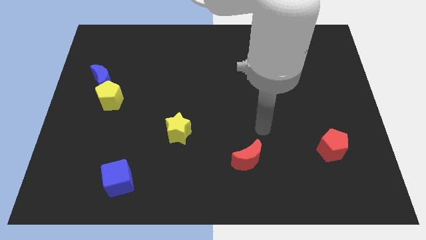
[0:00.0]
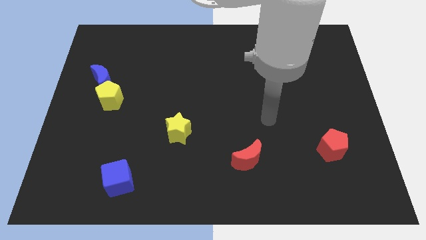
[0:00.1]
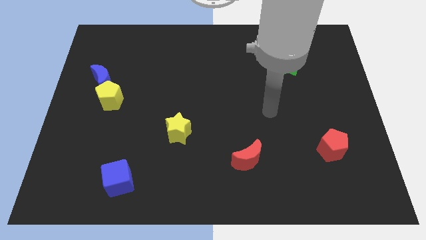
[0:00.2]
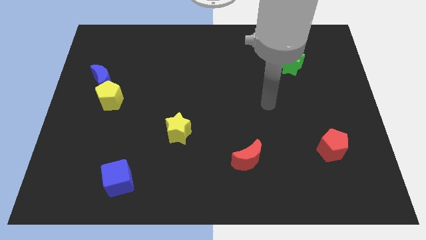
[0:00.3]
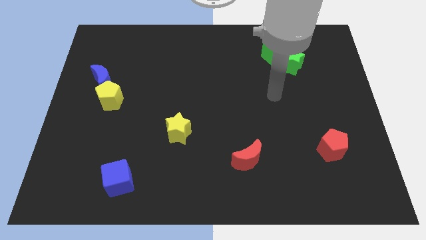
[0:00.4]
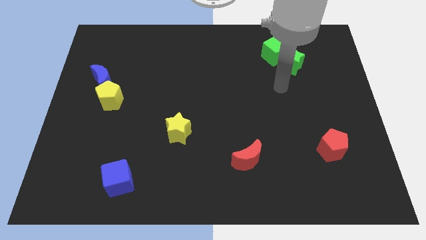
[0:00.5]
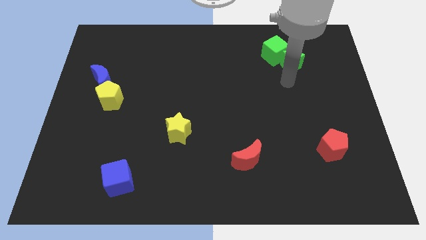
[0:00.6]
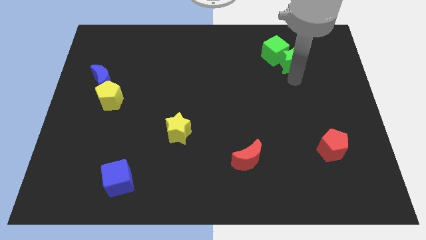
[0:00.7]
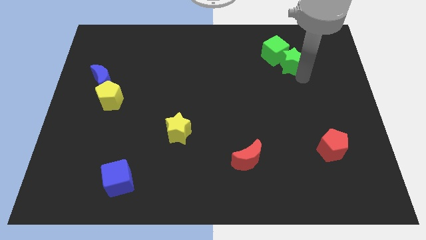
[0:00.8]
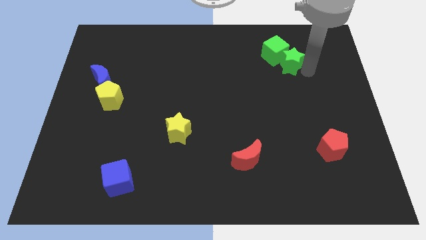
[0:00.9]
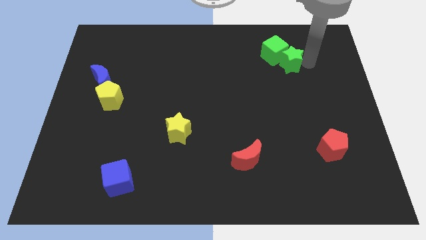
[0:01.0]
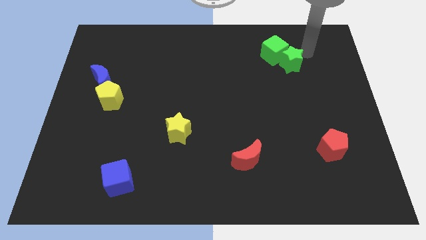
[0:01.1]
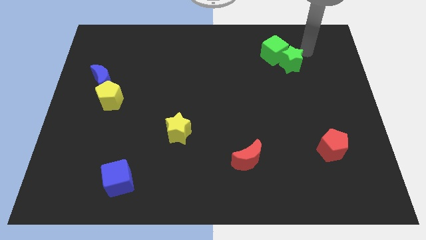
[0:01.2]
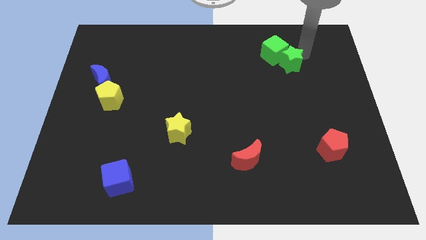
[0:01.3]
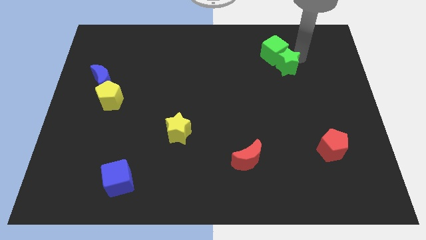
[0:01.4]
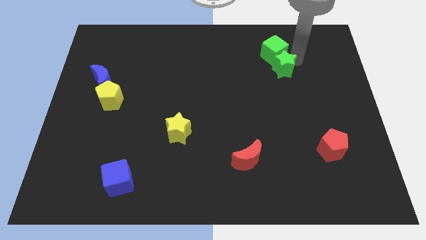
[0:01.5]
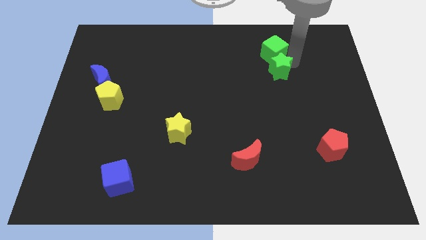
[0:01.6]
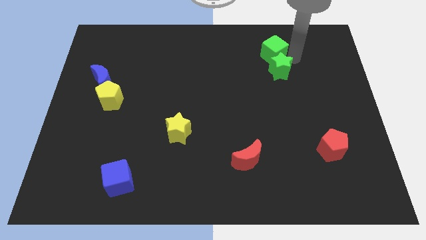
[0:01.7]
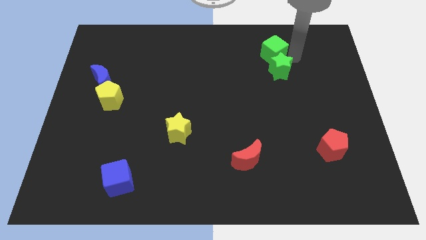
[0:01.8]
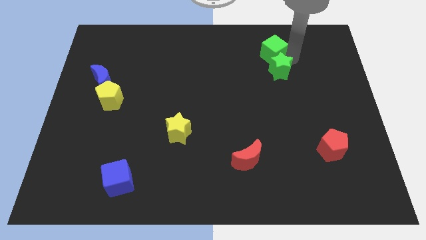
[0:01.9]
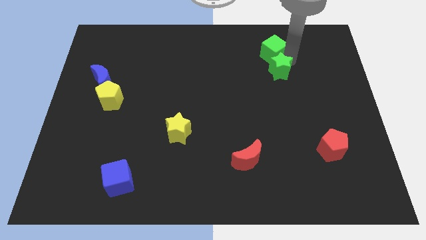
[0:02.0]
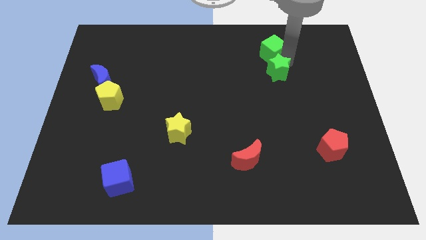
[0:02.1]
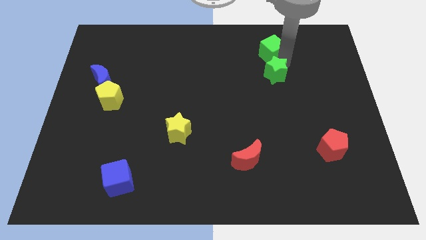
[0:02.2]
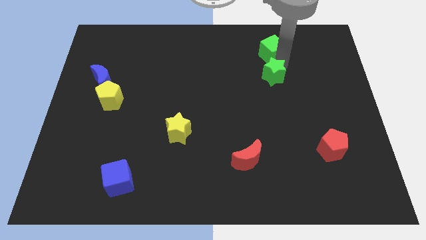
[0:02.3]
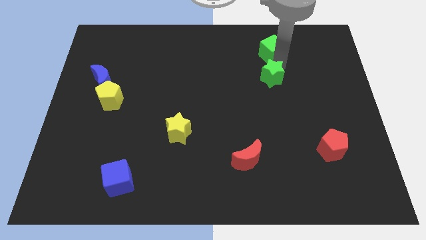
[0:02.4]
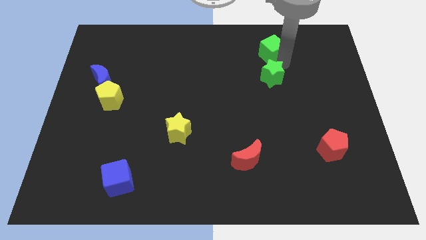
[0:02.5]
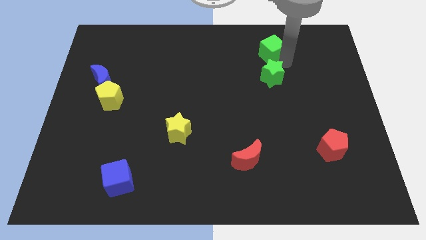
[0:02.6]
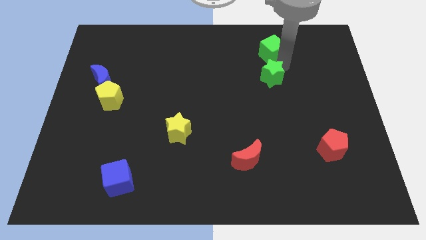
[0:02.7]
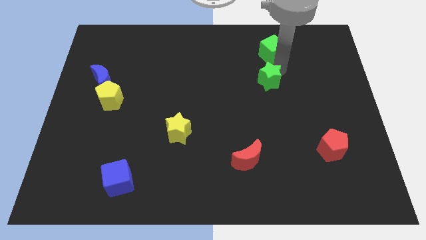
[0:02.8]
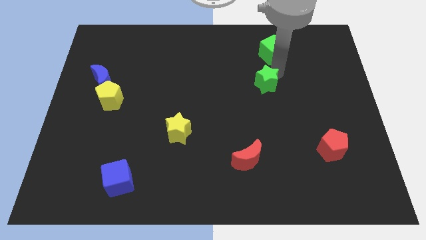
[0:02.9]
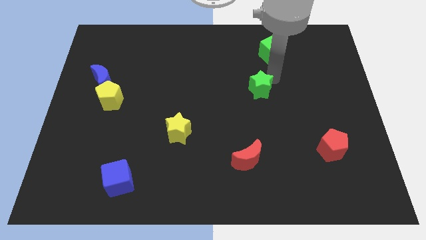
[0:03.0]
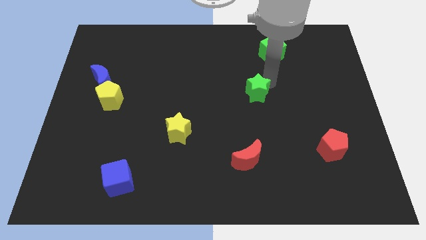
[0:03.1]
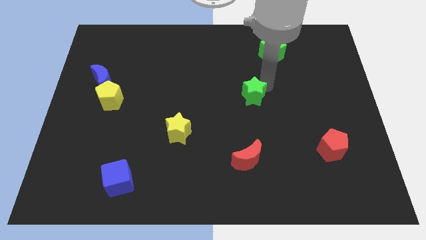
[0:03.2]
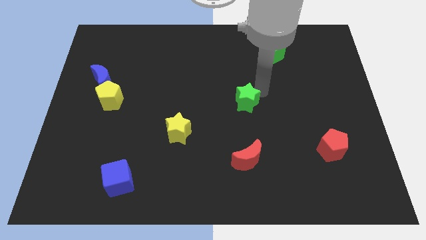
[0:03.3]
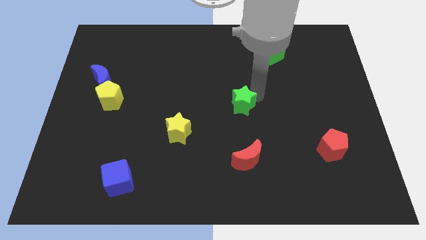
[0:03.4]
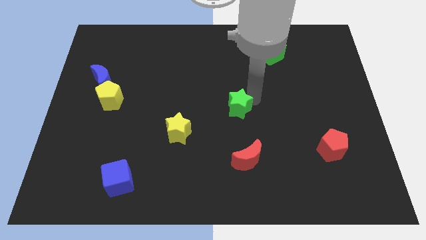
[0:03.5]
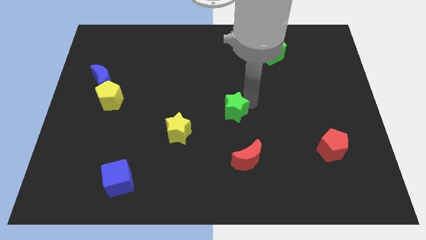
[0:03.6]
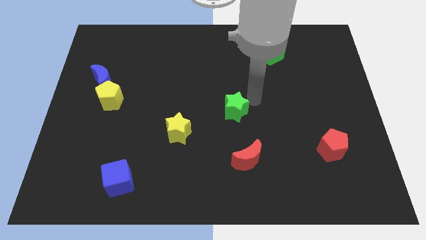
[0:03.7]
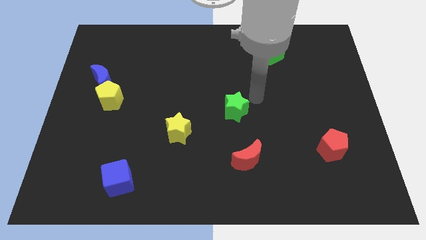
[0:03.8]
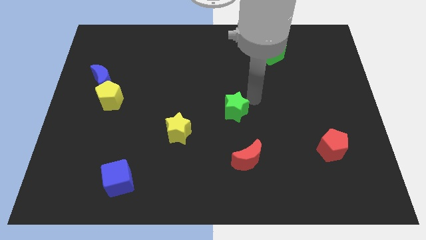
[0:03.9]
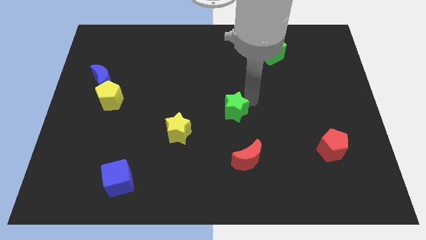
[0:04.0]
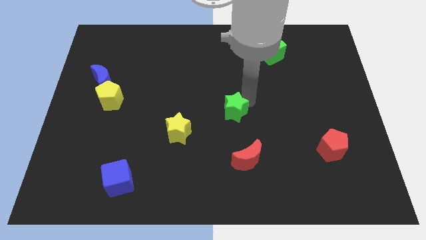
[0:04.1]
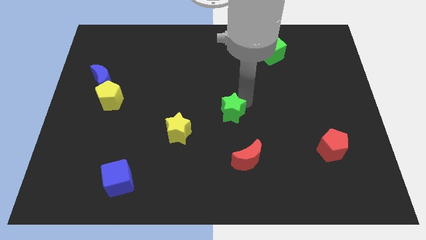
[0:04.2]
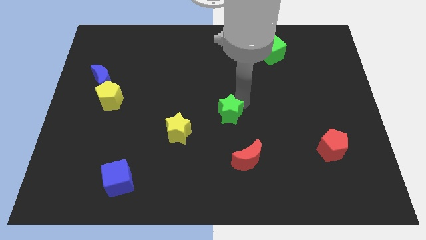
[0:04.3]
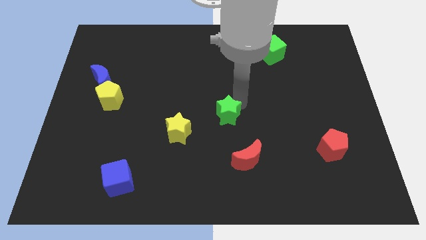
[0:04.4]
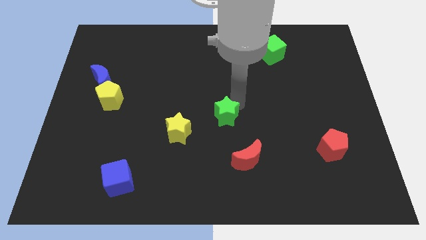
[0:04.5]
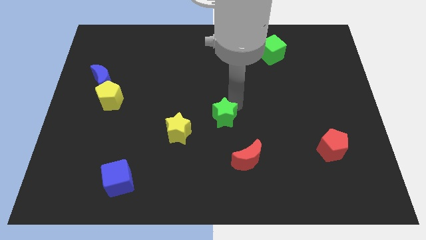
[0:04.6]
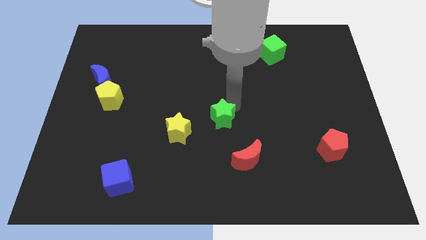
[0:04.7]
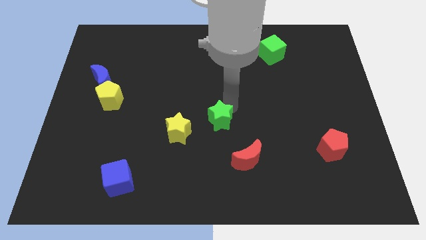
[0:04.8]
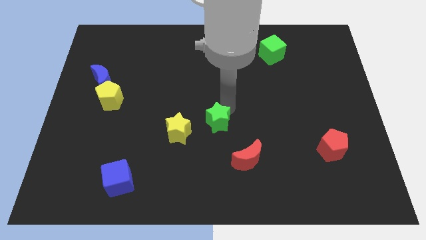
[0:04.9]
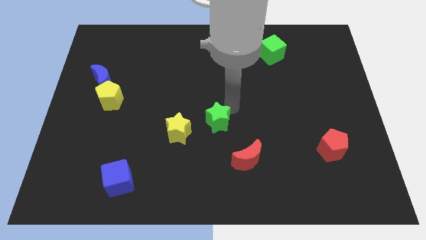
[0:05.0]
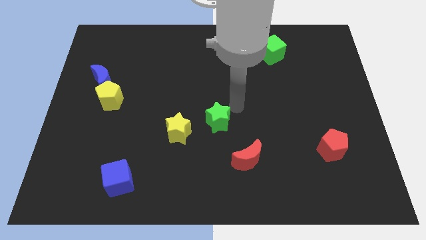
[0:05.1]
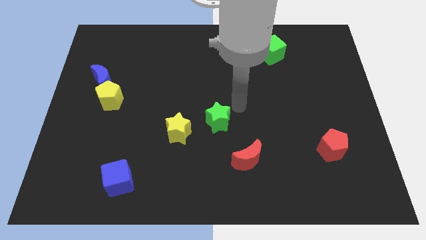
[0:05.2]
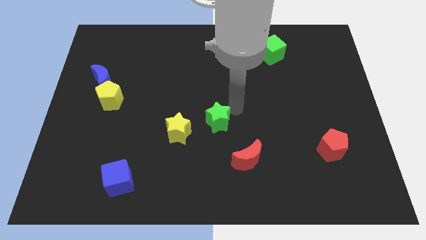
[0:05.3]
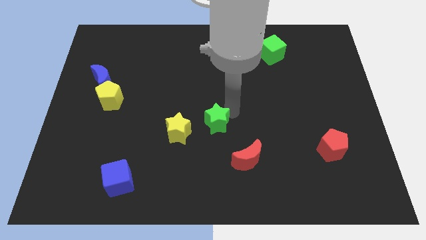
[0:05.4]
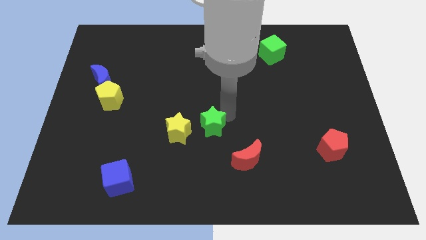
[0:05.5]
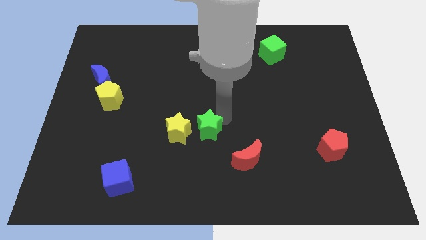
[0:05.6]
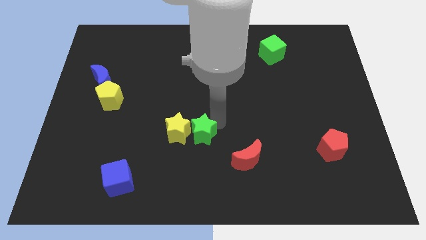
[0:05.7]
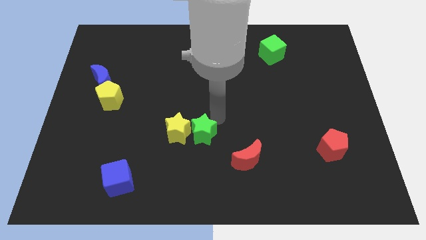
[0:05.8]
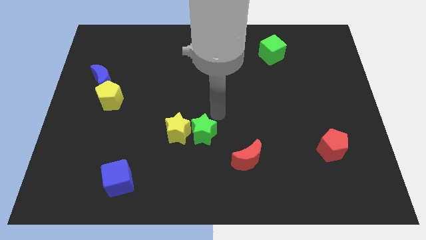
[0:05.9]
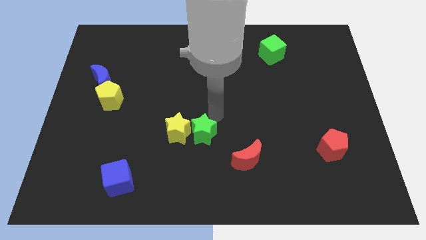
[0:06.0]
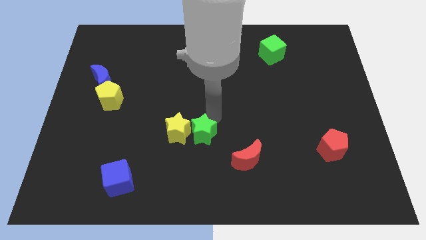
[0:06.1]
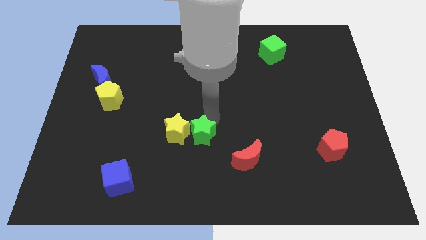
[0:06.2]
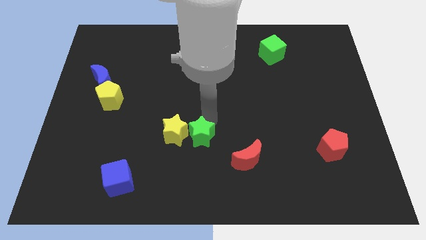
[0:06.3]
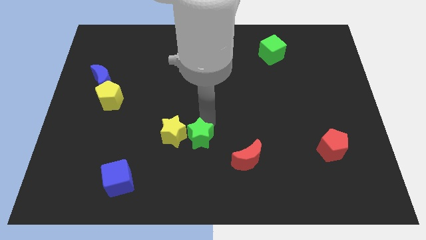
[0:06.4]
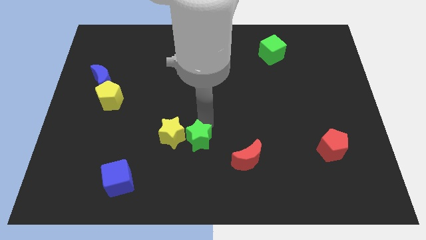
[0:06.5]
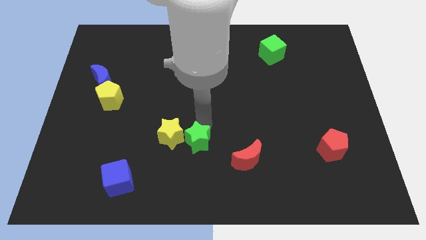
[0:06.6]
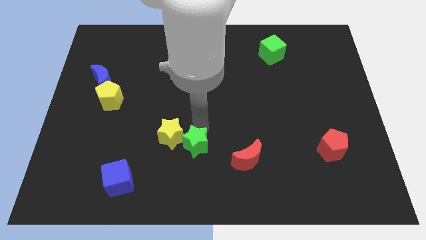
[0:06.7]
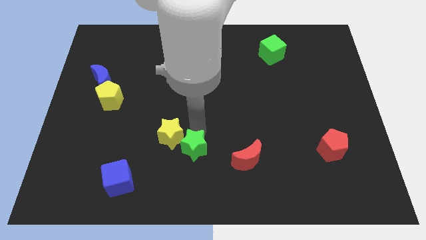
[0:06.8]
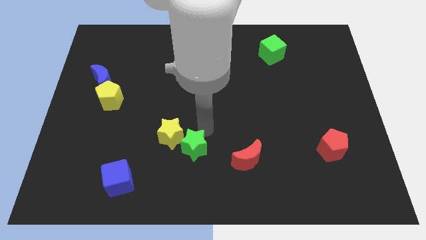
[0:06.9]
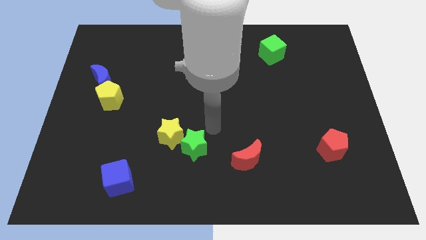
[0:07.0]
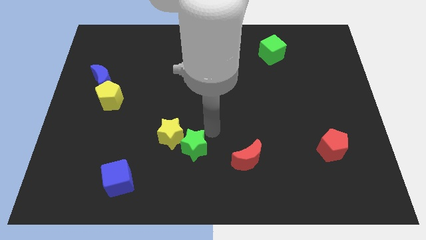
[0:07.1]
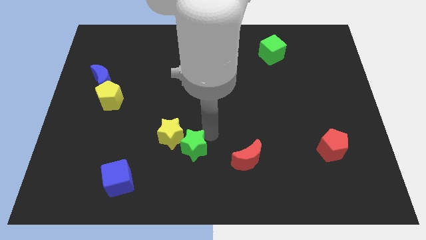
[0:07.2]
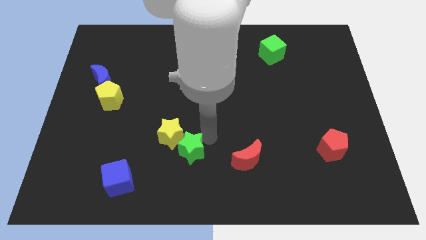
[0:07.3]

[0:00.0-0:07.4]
move the green star below the yellow star
